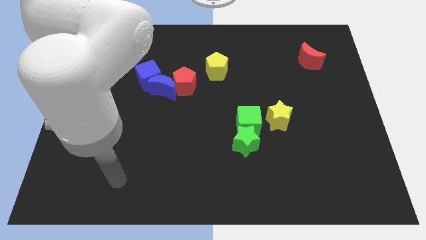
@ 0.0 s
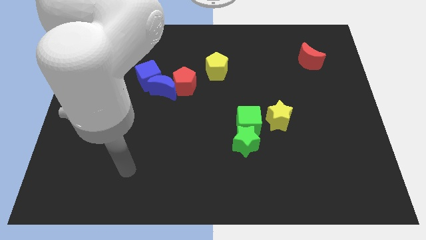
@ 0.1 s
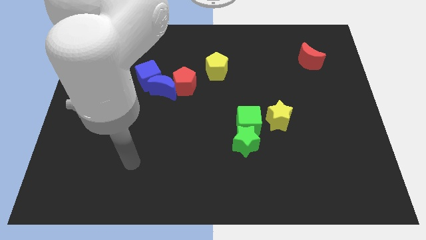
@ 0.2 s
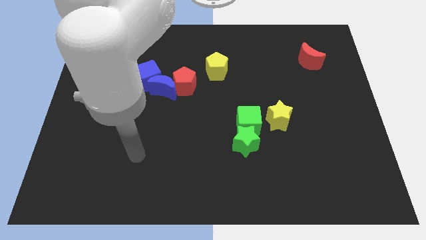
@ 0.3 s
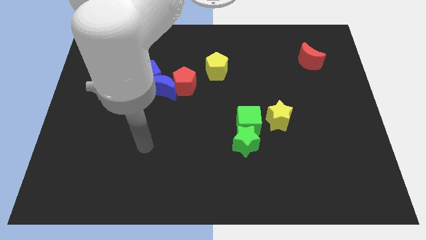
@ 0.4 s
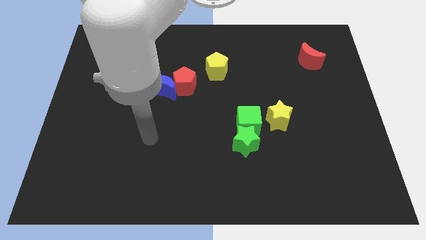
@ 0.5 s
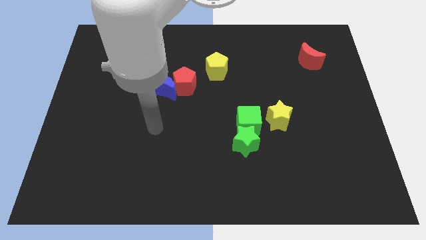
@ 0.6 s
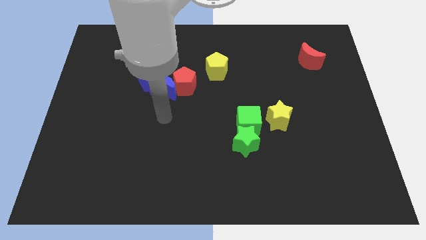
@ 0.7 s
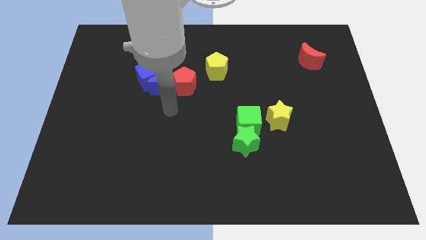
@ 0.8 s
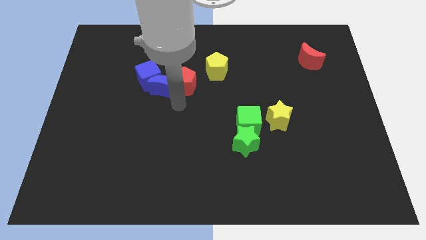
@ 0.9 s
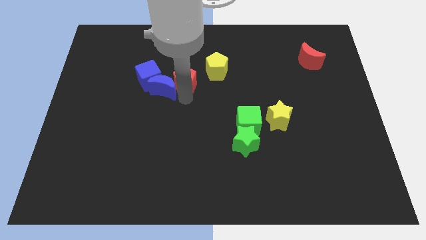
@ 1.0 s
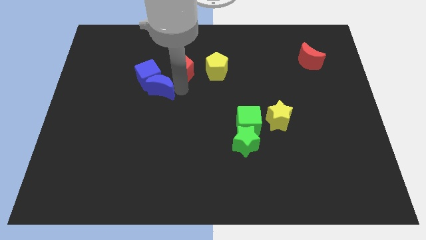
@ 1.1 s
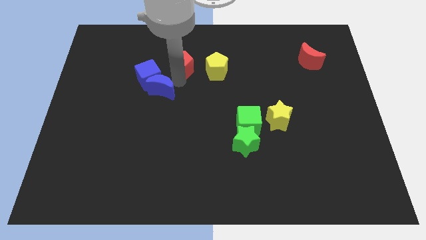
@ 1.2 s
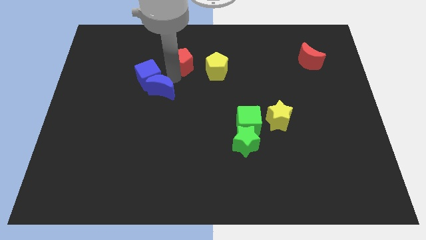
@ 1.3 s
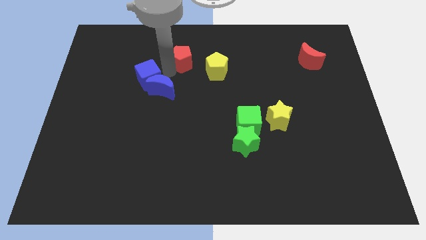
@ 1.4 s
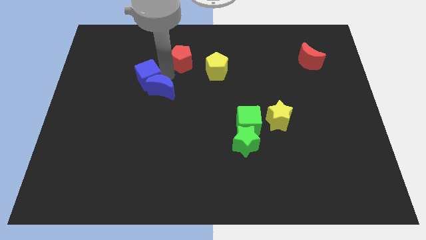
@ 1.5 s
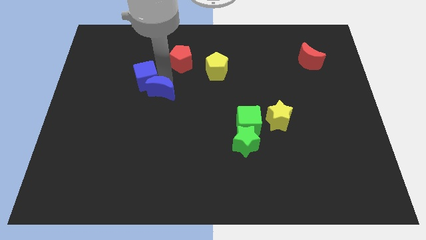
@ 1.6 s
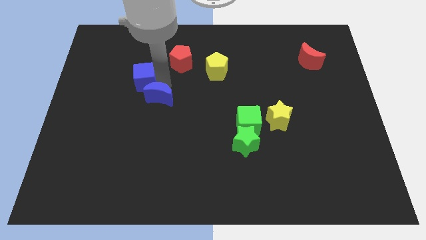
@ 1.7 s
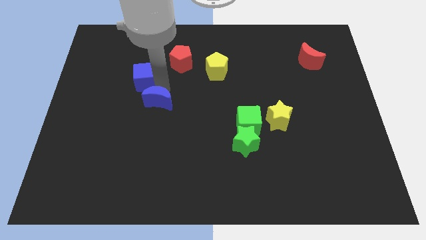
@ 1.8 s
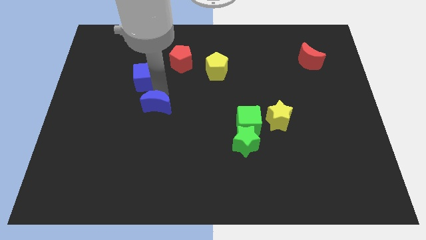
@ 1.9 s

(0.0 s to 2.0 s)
separate the blue moon from the blue cube and red pentagon

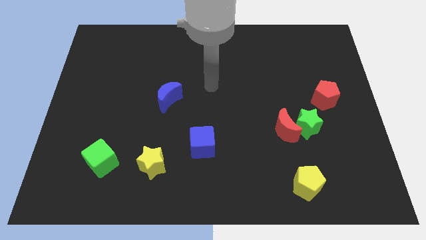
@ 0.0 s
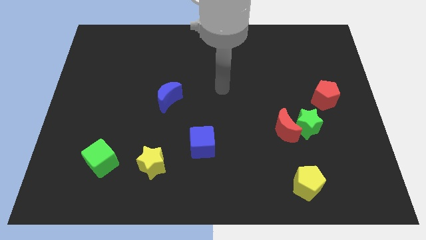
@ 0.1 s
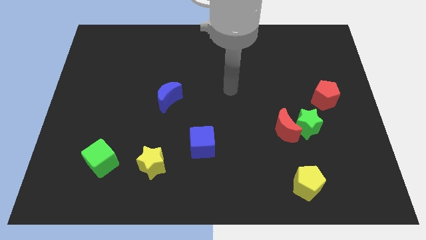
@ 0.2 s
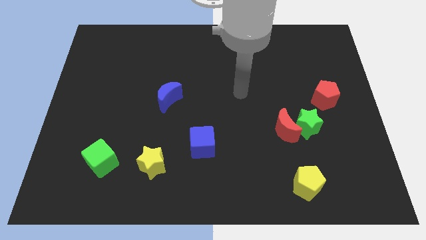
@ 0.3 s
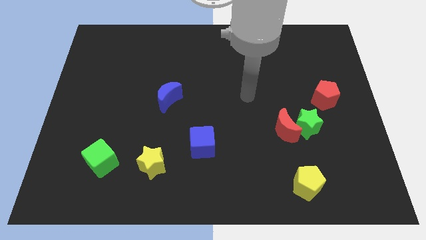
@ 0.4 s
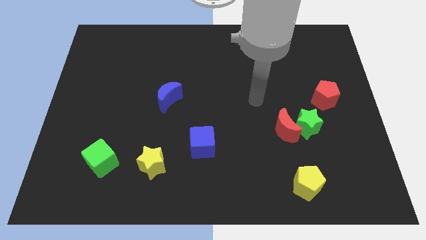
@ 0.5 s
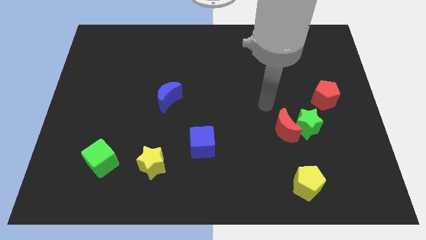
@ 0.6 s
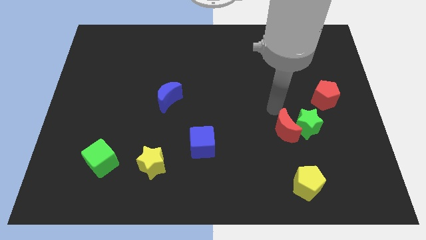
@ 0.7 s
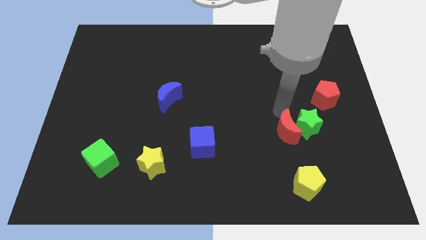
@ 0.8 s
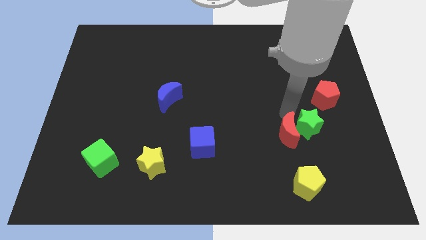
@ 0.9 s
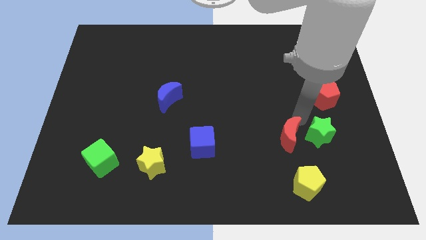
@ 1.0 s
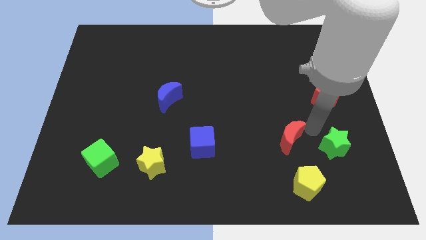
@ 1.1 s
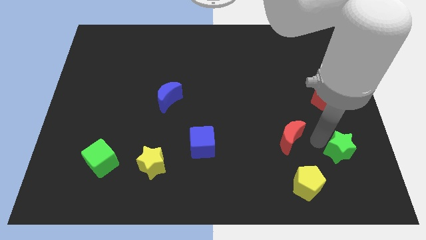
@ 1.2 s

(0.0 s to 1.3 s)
pull the red moon apart from the green star

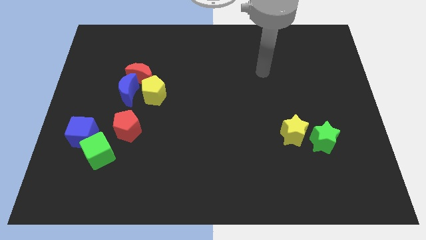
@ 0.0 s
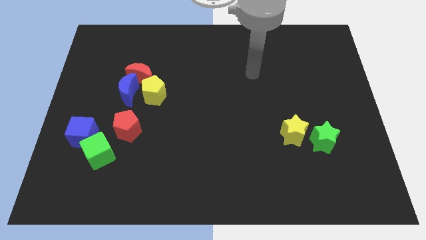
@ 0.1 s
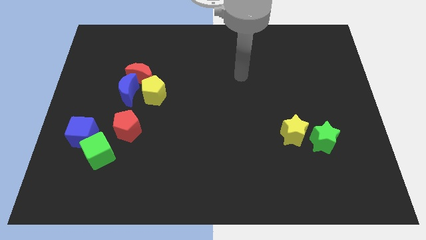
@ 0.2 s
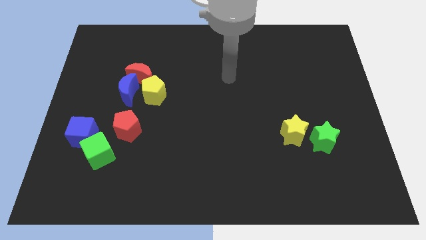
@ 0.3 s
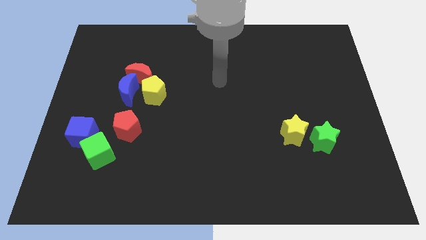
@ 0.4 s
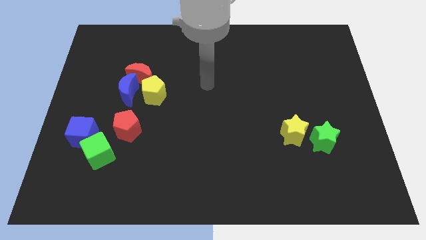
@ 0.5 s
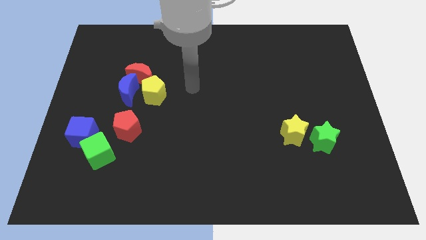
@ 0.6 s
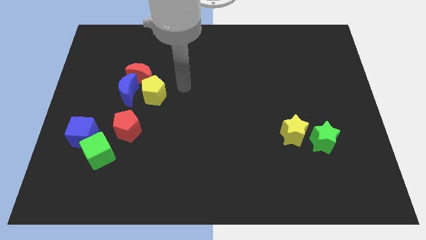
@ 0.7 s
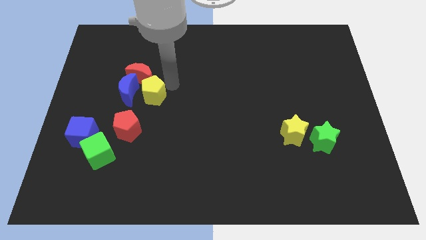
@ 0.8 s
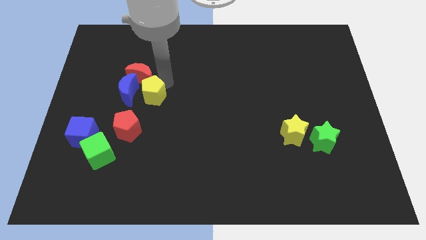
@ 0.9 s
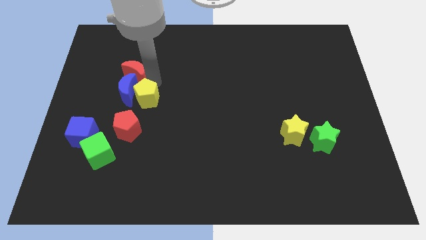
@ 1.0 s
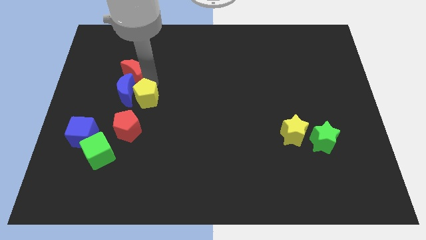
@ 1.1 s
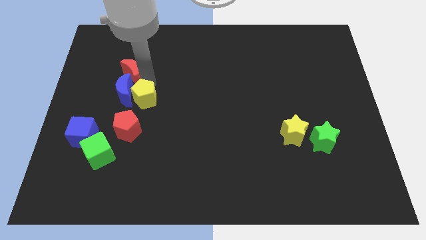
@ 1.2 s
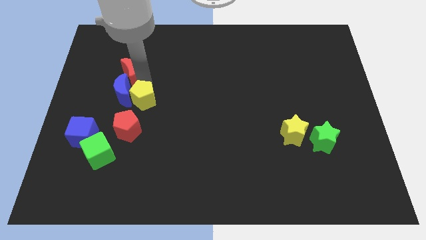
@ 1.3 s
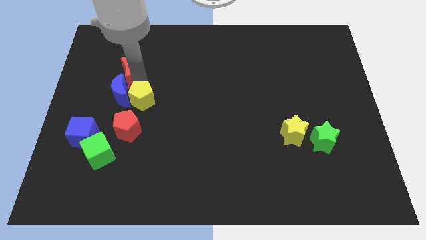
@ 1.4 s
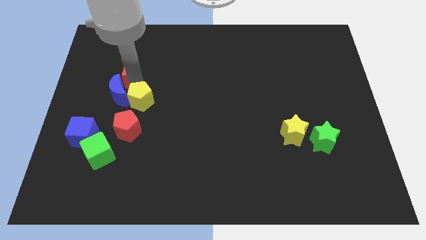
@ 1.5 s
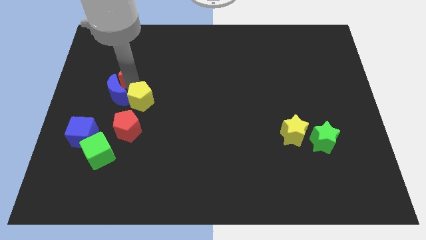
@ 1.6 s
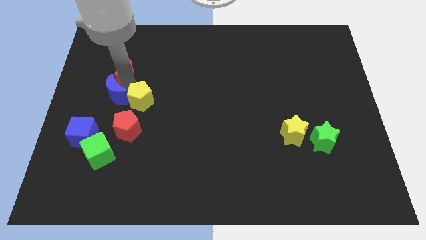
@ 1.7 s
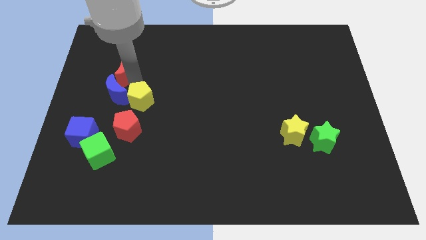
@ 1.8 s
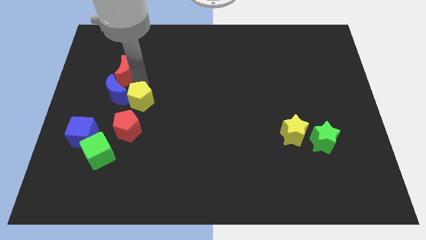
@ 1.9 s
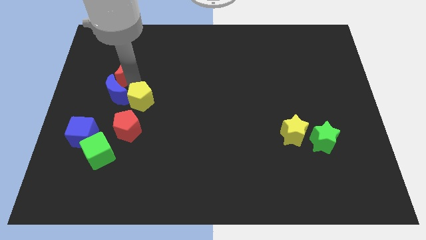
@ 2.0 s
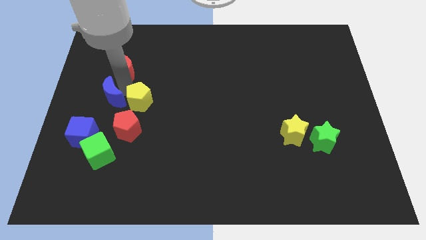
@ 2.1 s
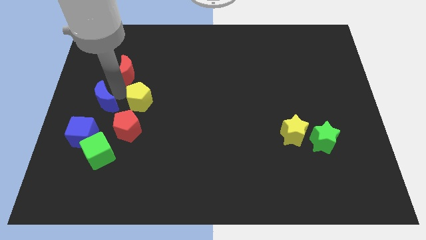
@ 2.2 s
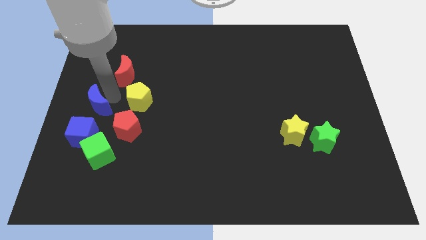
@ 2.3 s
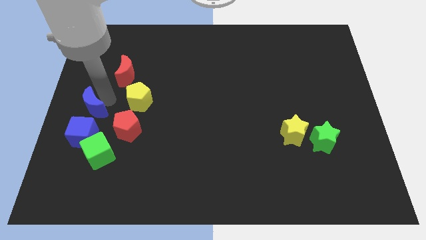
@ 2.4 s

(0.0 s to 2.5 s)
move the blue moon away from the red moon and yellow pentagon

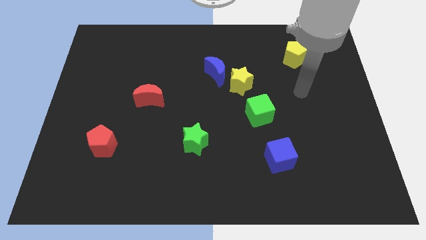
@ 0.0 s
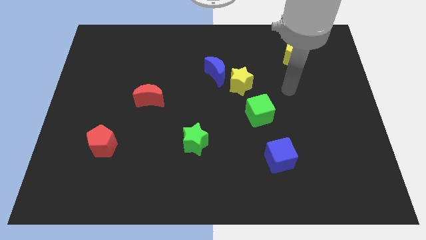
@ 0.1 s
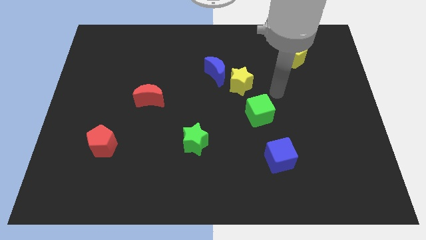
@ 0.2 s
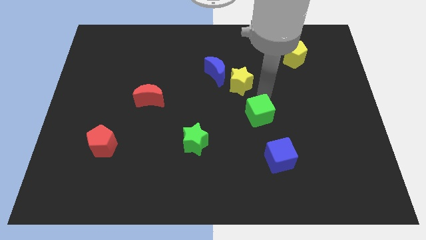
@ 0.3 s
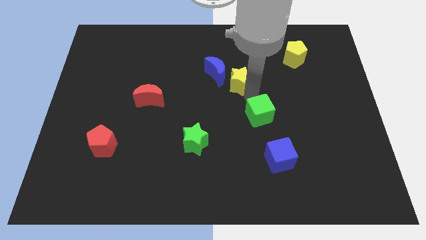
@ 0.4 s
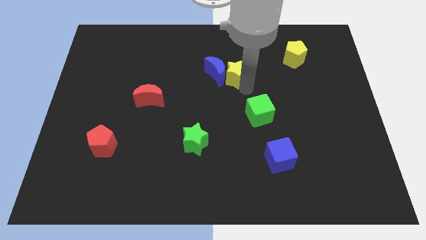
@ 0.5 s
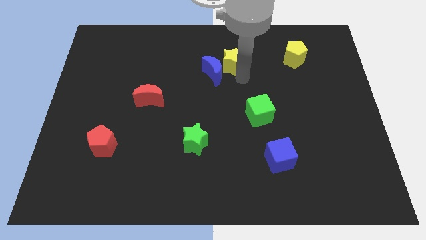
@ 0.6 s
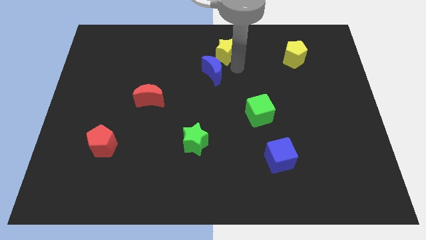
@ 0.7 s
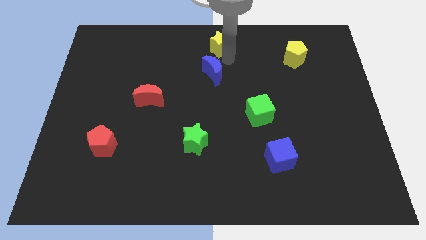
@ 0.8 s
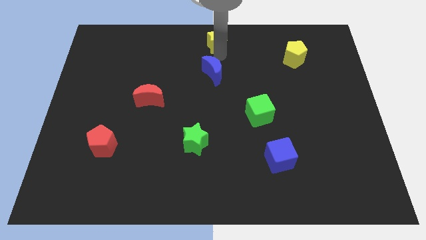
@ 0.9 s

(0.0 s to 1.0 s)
move the blue moon away from the yellow star

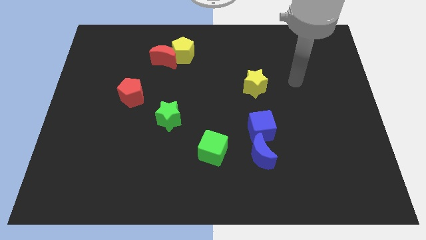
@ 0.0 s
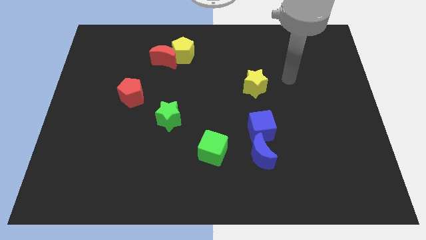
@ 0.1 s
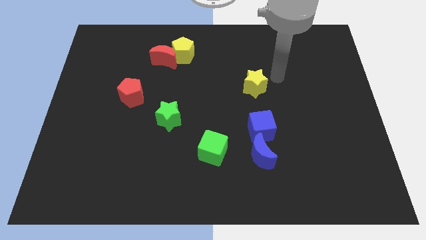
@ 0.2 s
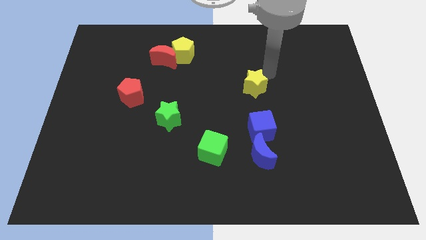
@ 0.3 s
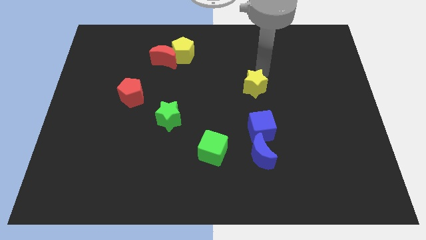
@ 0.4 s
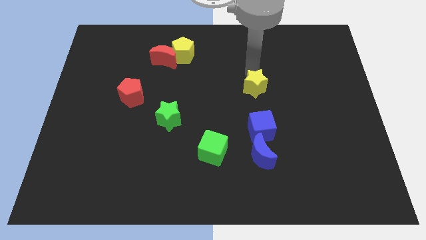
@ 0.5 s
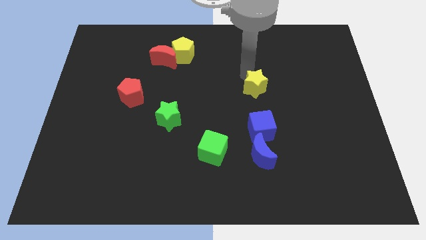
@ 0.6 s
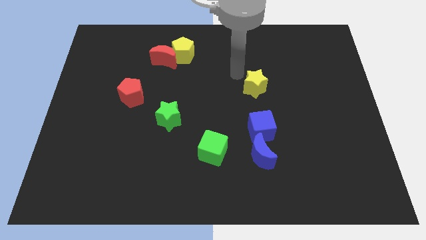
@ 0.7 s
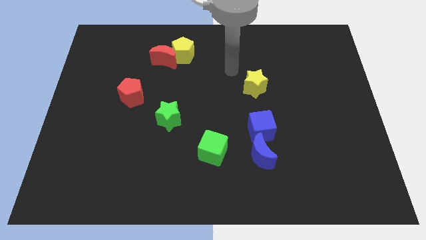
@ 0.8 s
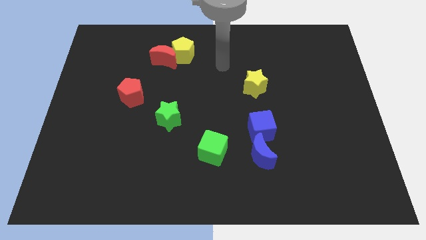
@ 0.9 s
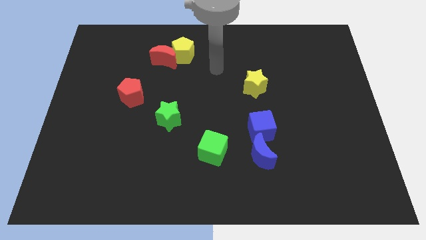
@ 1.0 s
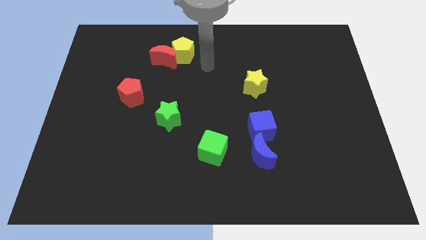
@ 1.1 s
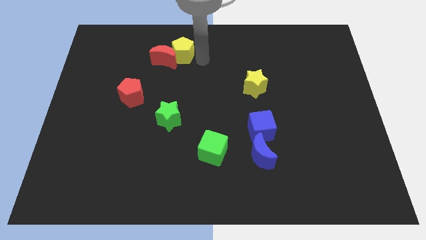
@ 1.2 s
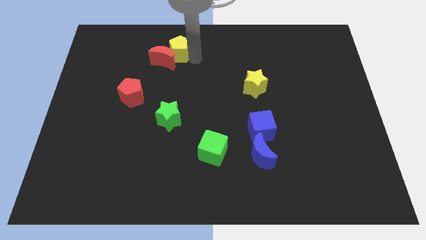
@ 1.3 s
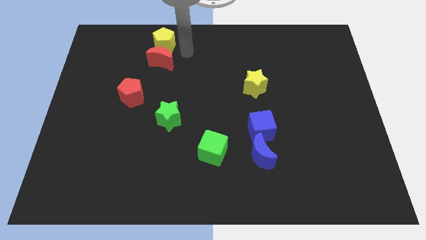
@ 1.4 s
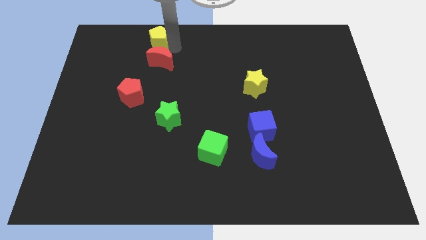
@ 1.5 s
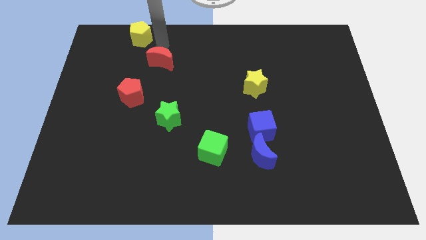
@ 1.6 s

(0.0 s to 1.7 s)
separate the red moon from the yellow pentagon

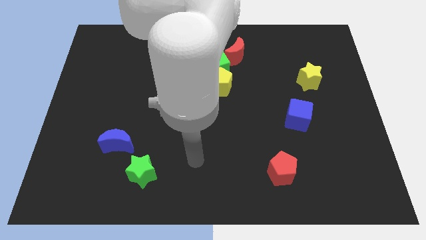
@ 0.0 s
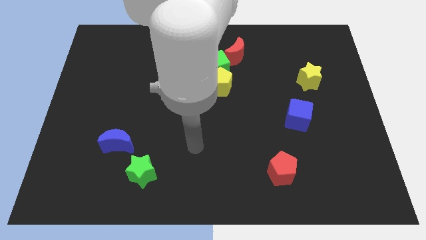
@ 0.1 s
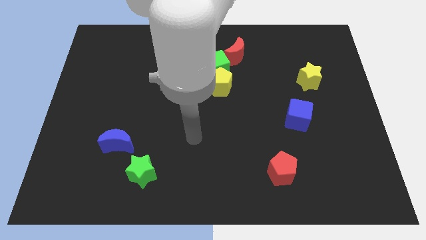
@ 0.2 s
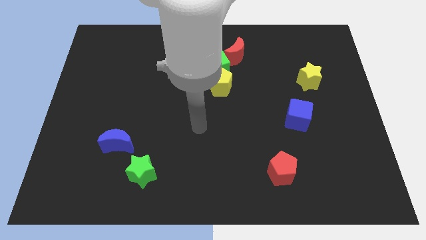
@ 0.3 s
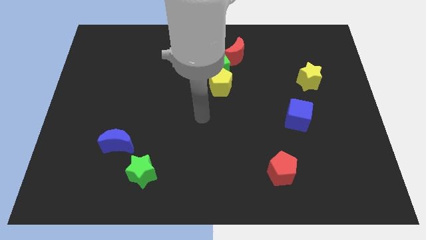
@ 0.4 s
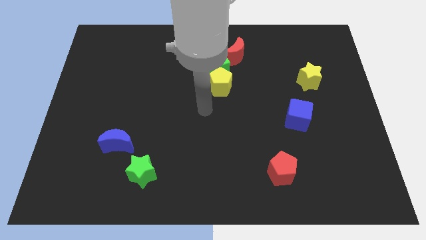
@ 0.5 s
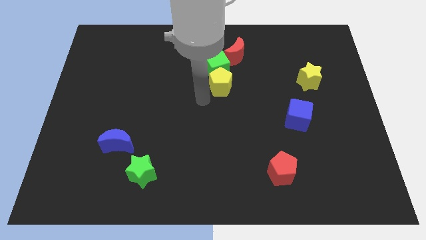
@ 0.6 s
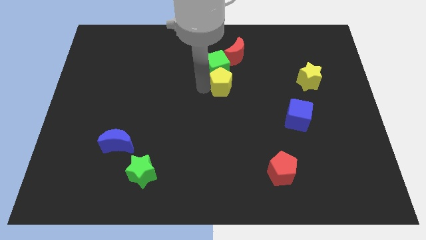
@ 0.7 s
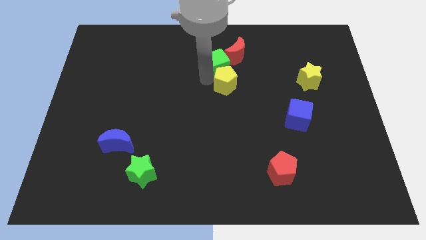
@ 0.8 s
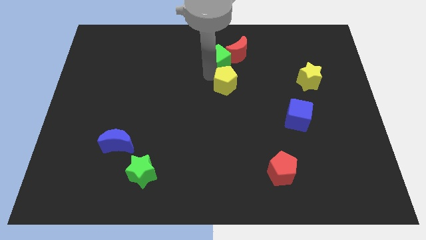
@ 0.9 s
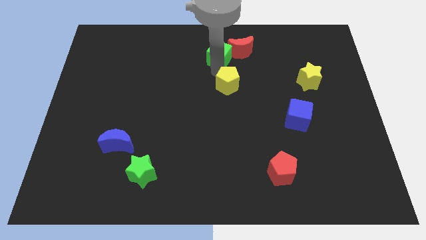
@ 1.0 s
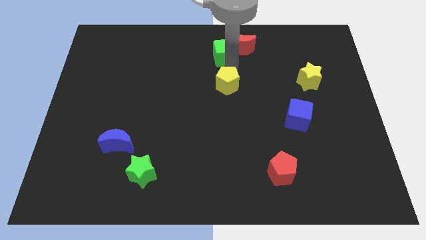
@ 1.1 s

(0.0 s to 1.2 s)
move the yellow pentagon away from the green cube
